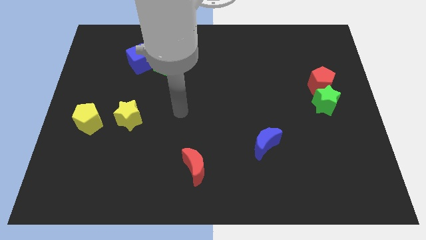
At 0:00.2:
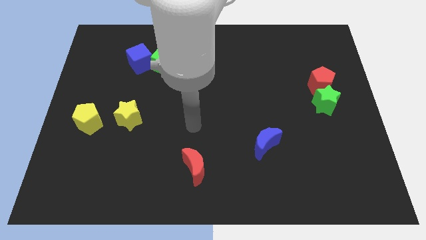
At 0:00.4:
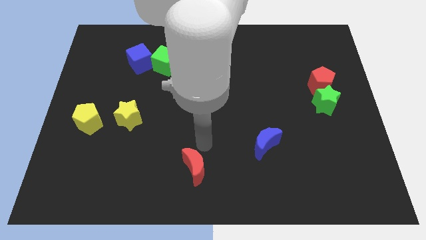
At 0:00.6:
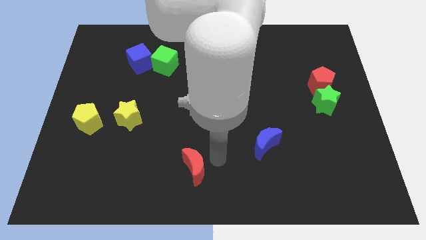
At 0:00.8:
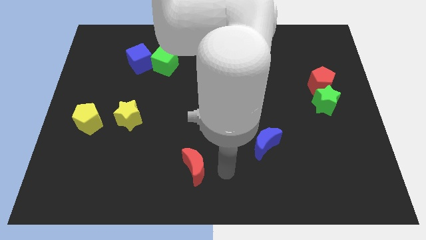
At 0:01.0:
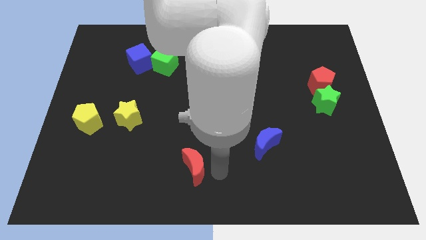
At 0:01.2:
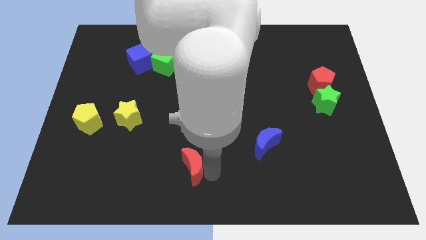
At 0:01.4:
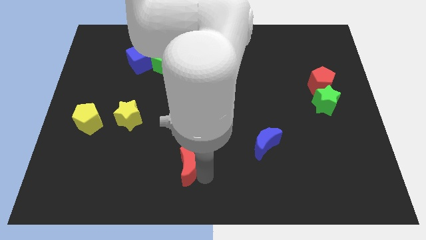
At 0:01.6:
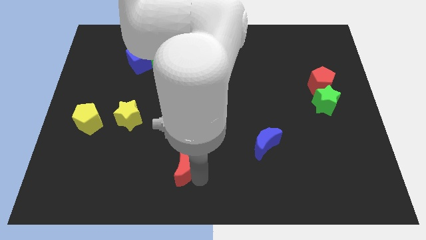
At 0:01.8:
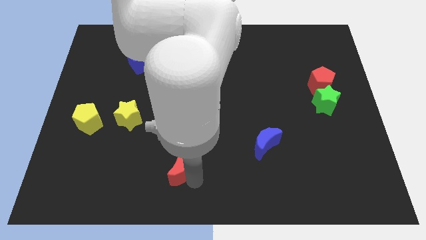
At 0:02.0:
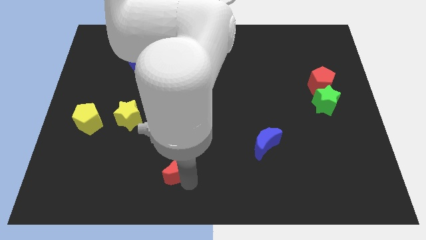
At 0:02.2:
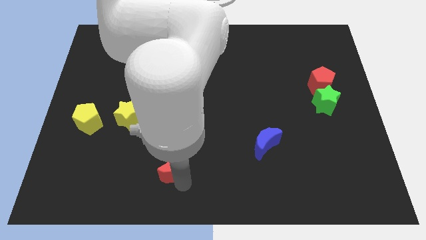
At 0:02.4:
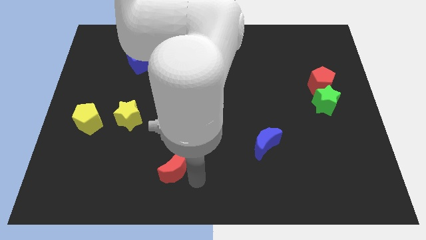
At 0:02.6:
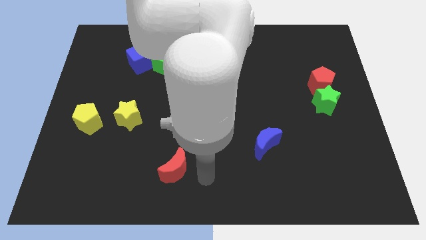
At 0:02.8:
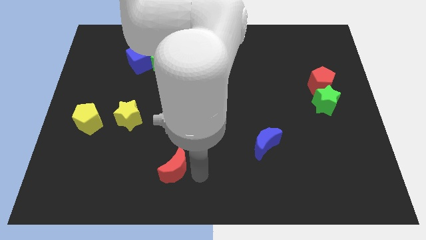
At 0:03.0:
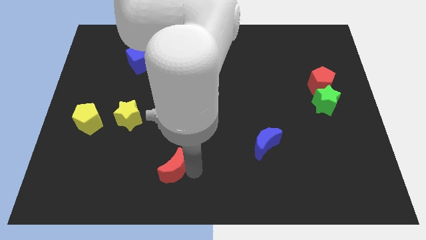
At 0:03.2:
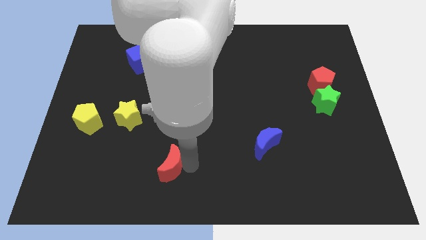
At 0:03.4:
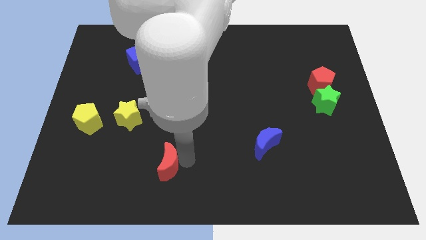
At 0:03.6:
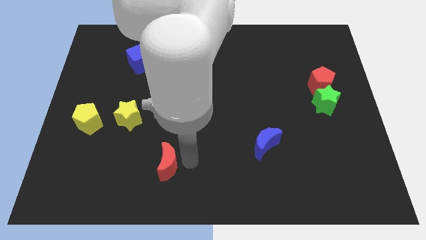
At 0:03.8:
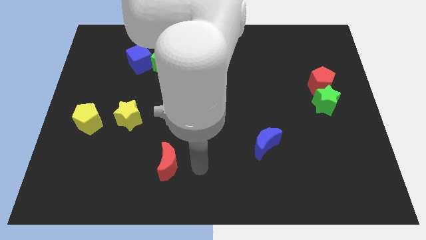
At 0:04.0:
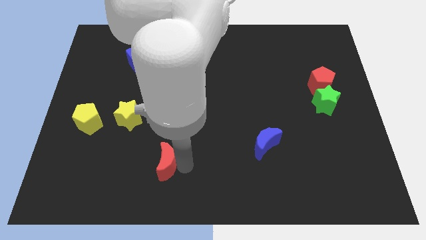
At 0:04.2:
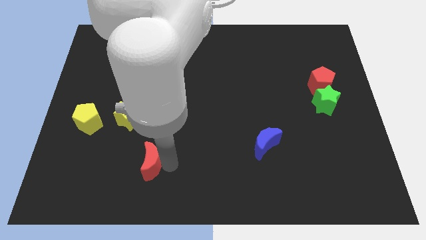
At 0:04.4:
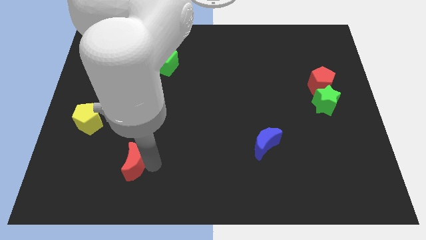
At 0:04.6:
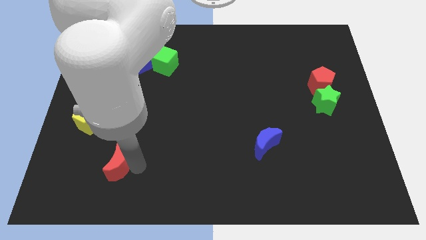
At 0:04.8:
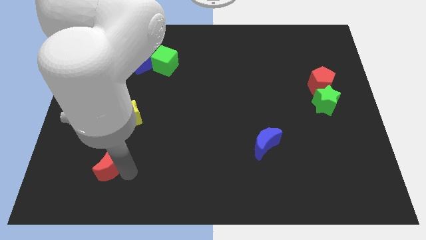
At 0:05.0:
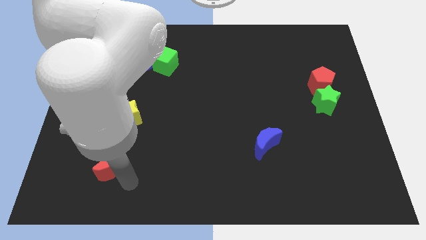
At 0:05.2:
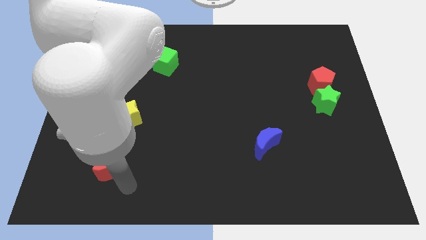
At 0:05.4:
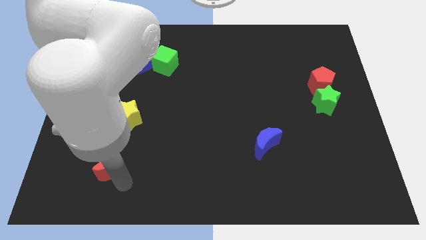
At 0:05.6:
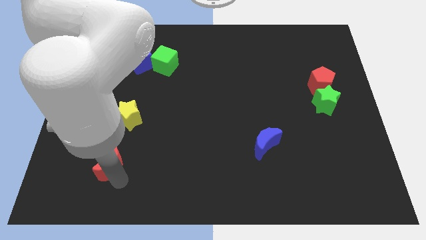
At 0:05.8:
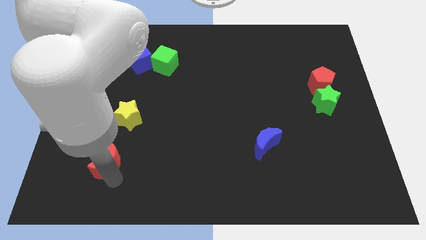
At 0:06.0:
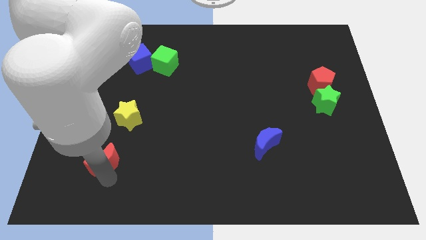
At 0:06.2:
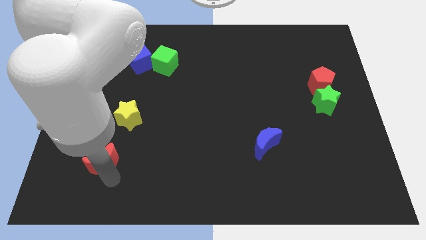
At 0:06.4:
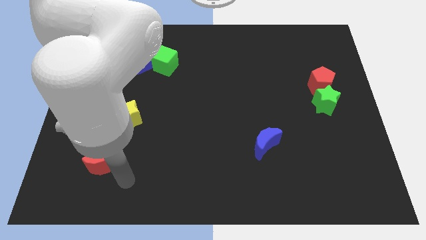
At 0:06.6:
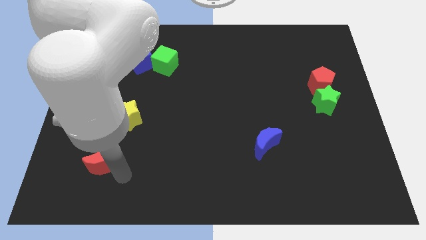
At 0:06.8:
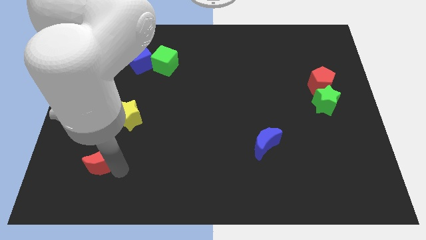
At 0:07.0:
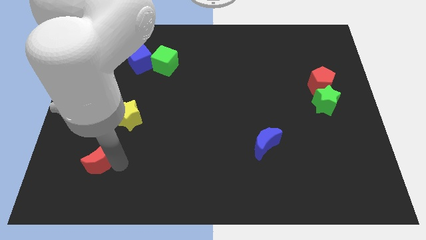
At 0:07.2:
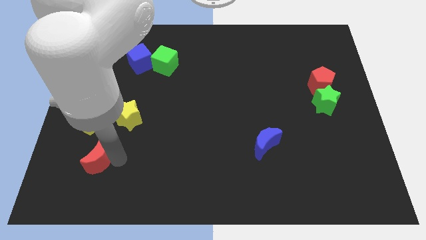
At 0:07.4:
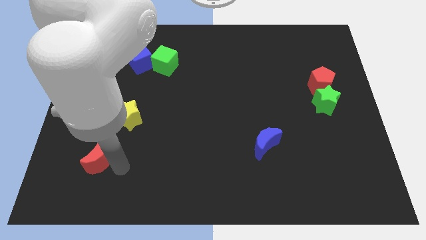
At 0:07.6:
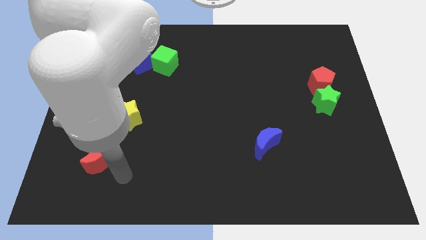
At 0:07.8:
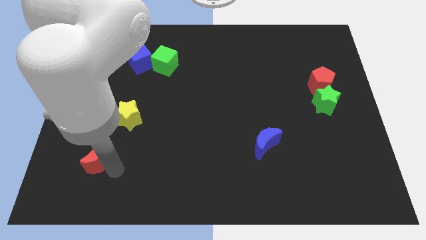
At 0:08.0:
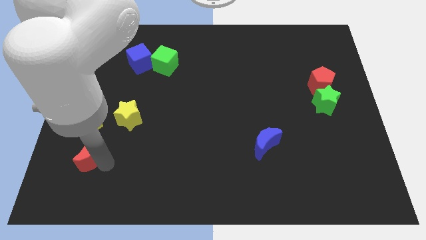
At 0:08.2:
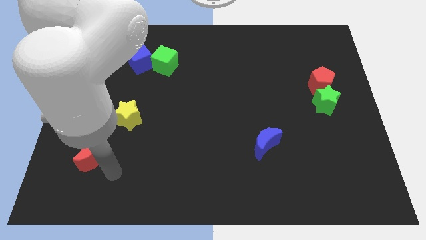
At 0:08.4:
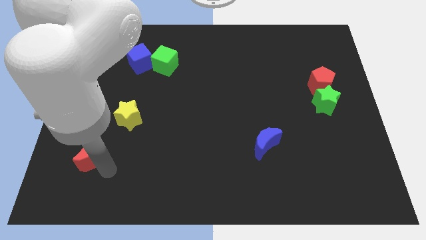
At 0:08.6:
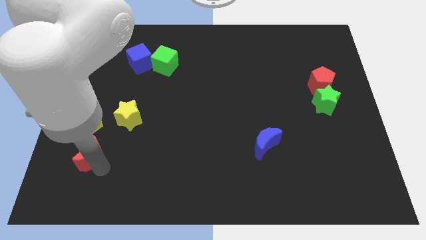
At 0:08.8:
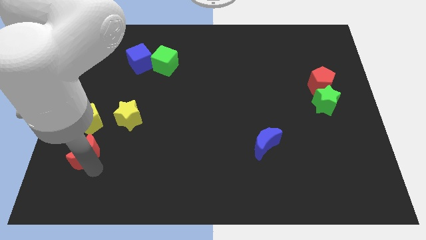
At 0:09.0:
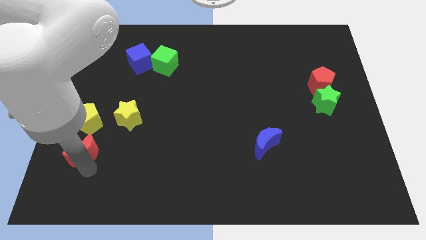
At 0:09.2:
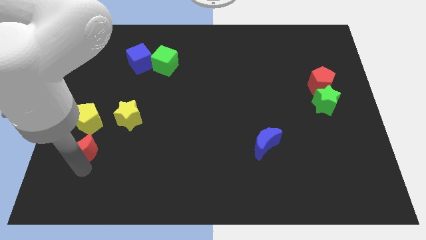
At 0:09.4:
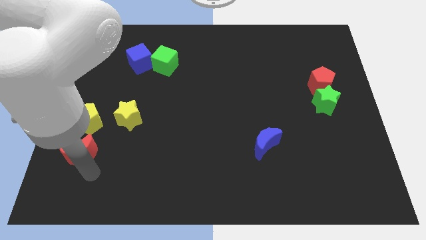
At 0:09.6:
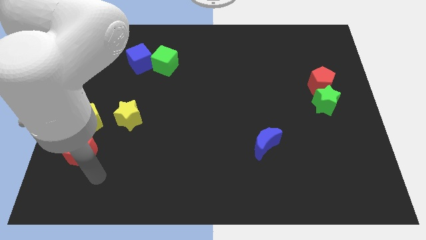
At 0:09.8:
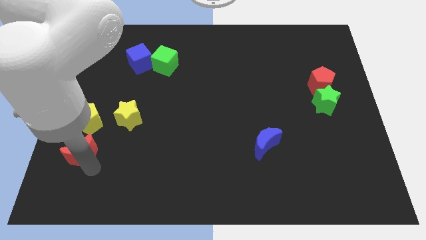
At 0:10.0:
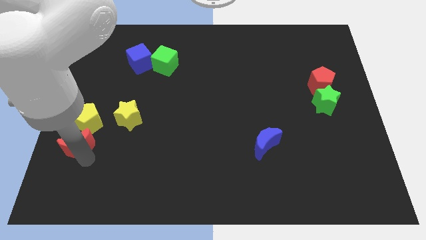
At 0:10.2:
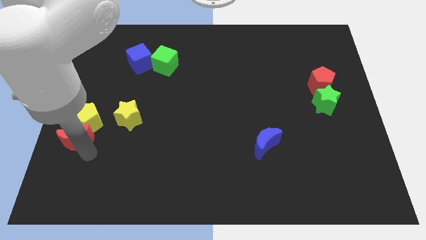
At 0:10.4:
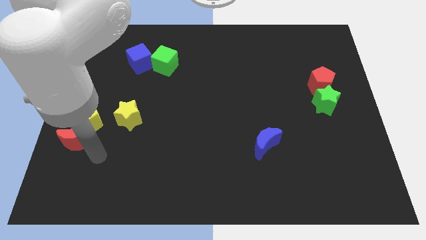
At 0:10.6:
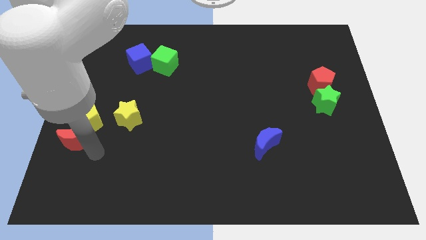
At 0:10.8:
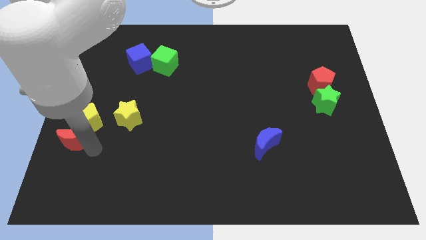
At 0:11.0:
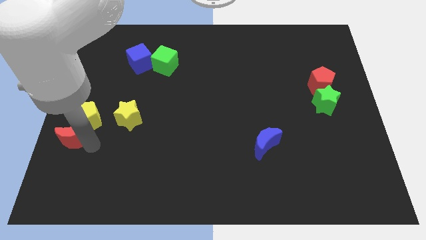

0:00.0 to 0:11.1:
put the red moon to the left side of the board
